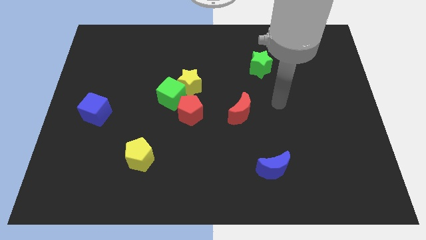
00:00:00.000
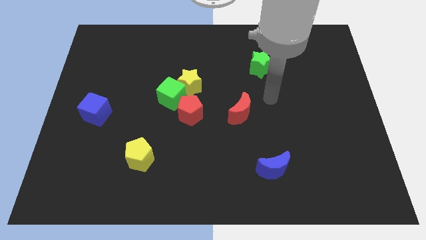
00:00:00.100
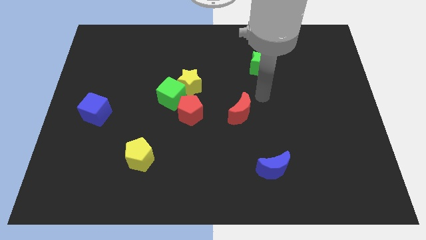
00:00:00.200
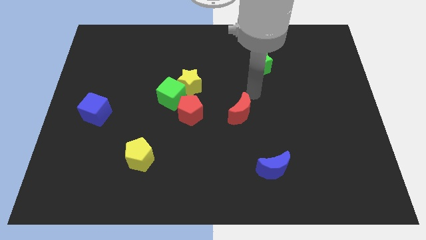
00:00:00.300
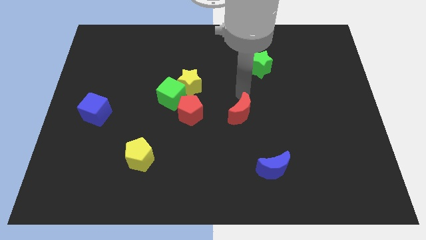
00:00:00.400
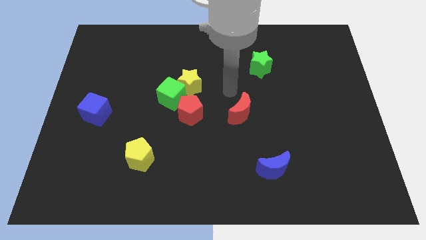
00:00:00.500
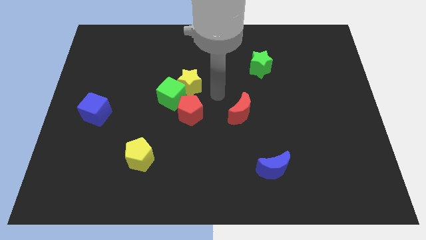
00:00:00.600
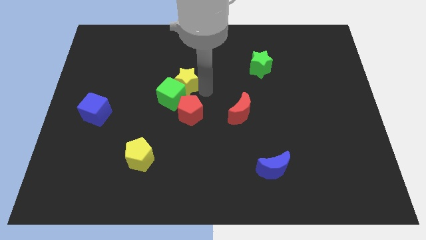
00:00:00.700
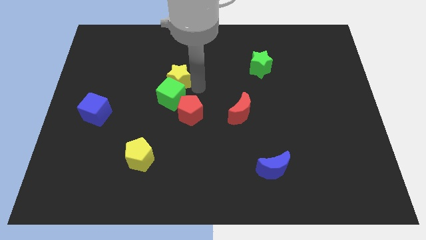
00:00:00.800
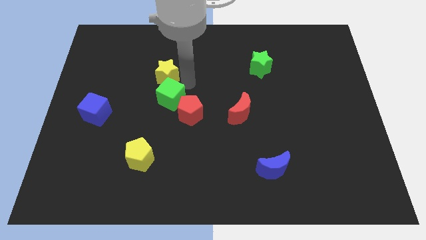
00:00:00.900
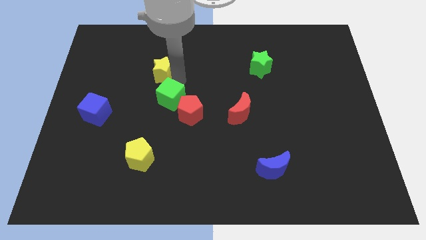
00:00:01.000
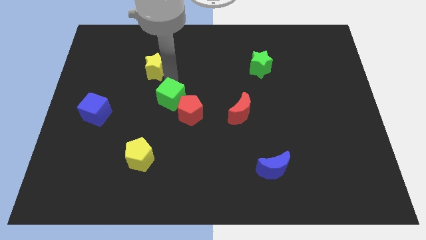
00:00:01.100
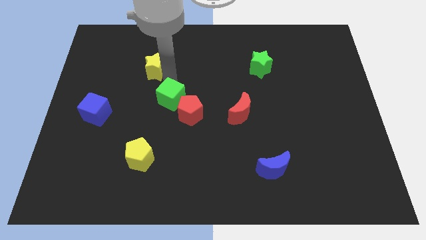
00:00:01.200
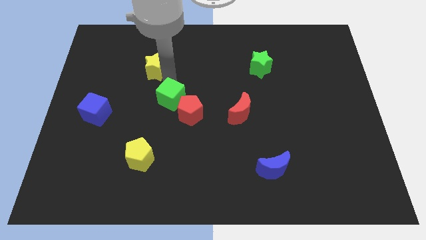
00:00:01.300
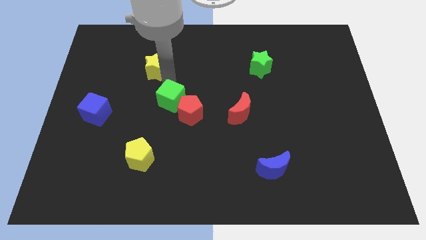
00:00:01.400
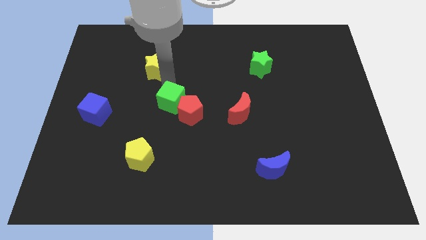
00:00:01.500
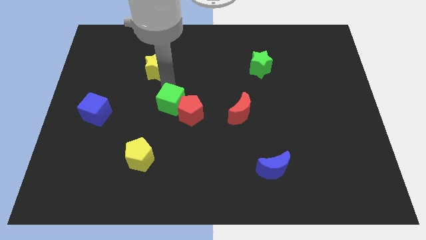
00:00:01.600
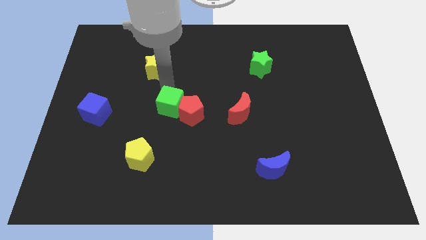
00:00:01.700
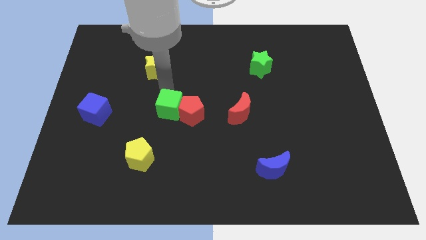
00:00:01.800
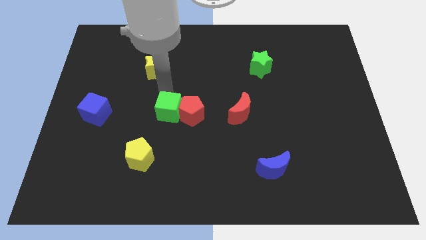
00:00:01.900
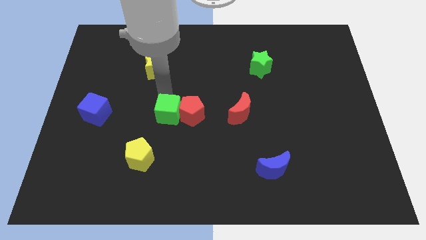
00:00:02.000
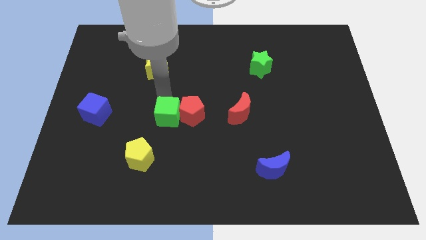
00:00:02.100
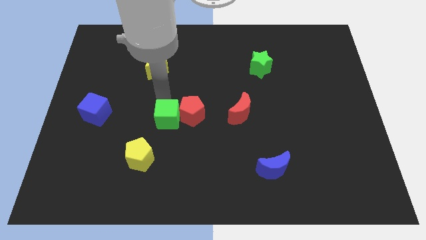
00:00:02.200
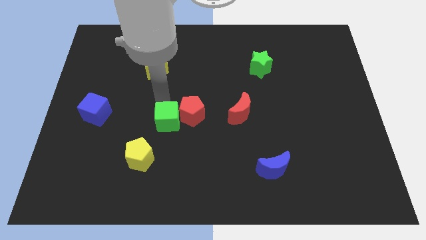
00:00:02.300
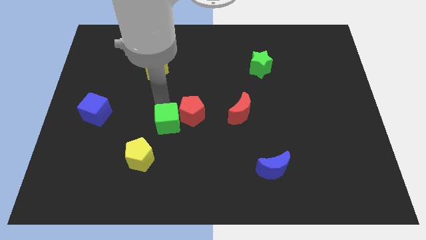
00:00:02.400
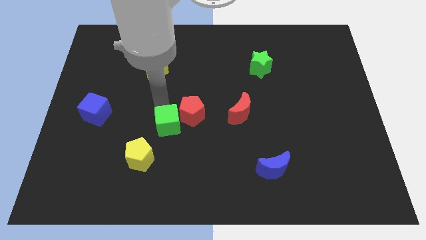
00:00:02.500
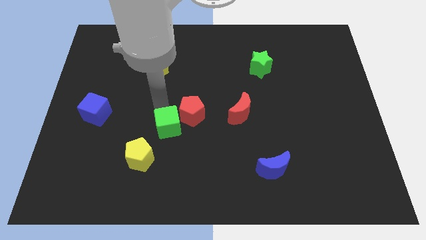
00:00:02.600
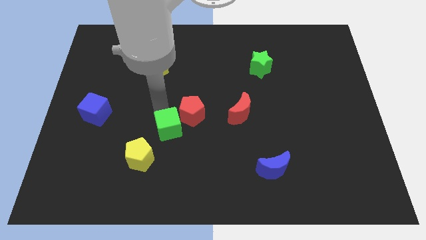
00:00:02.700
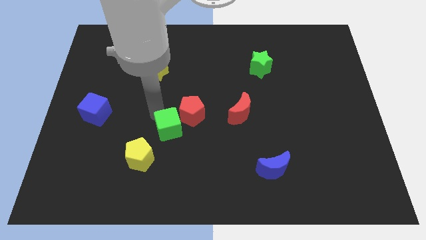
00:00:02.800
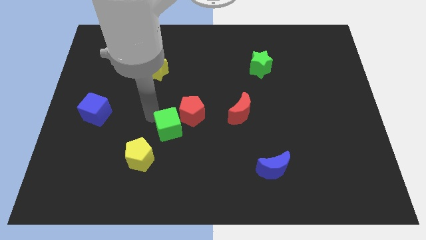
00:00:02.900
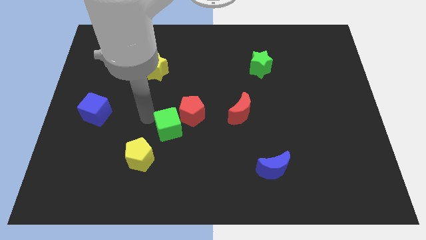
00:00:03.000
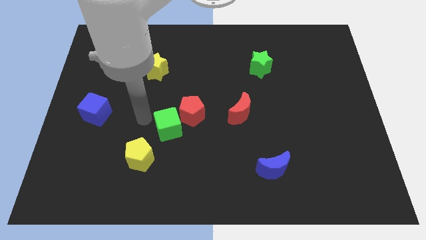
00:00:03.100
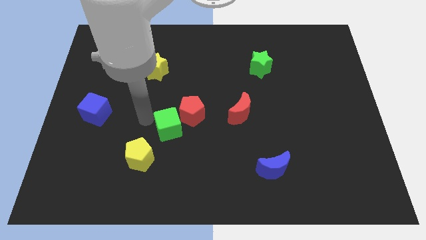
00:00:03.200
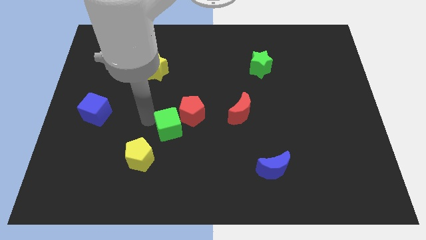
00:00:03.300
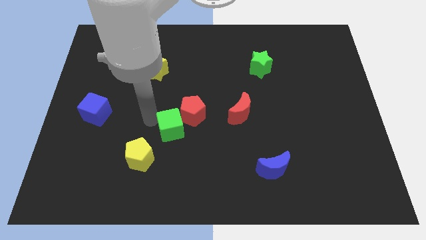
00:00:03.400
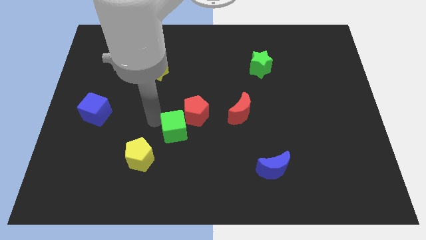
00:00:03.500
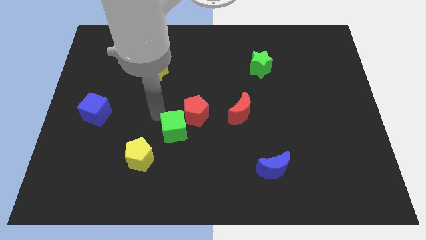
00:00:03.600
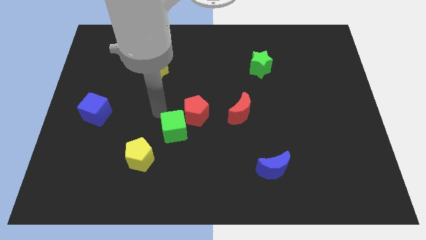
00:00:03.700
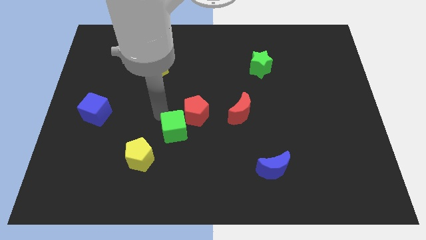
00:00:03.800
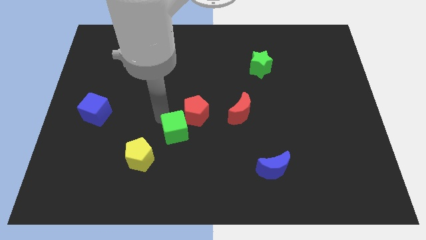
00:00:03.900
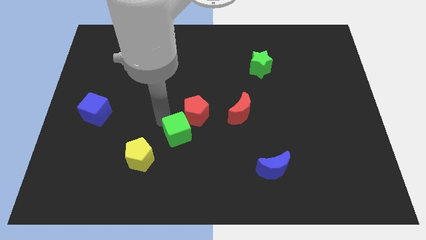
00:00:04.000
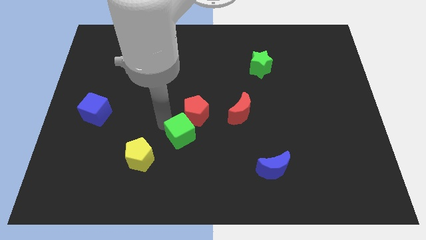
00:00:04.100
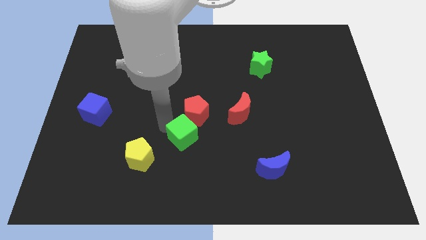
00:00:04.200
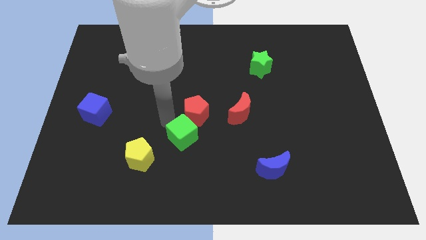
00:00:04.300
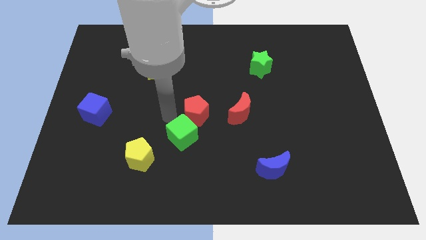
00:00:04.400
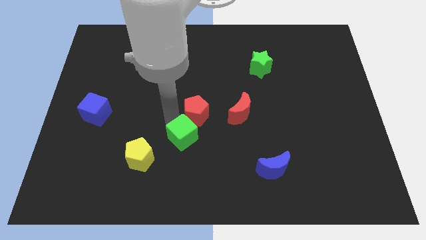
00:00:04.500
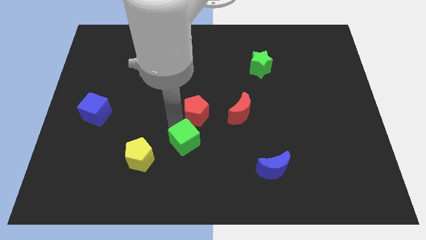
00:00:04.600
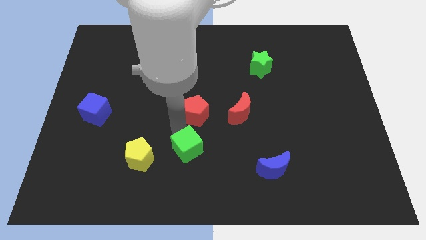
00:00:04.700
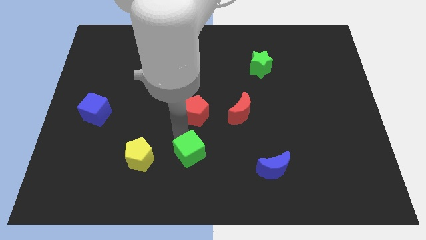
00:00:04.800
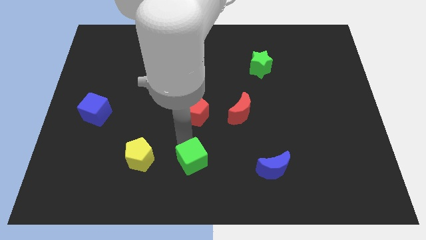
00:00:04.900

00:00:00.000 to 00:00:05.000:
put the green cube to the bottom side

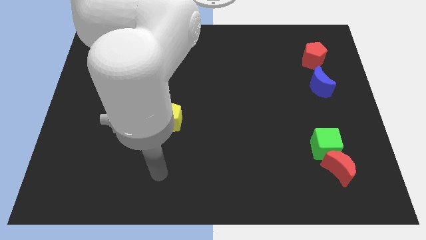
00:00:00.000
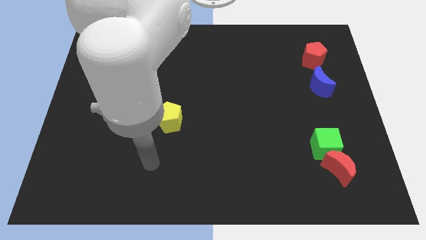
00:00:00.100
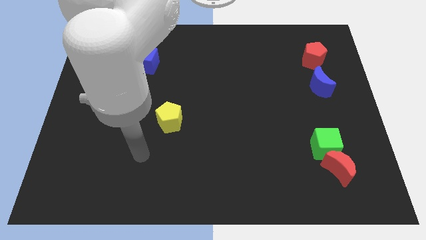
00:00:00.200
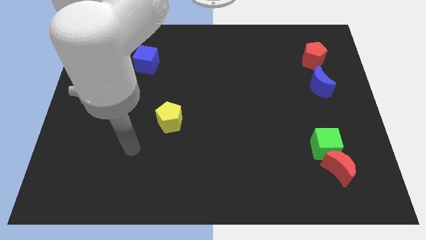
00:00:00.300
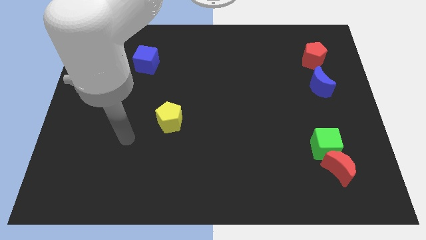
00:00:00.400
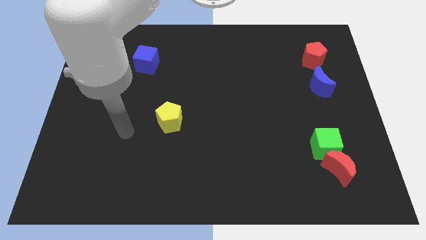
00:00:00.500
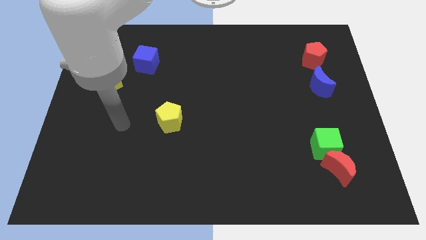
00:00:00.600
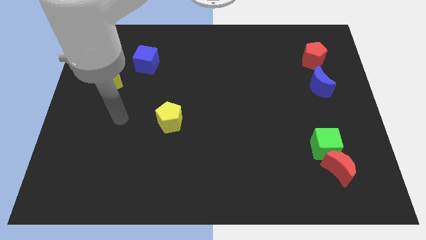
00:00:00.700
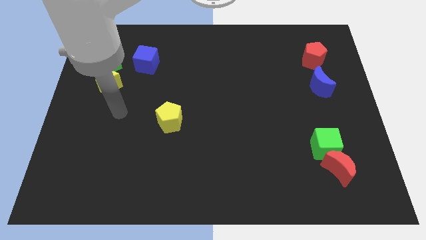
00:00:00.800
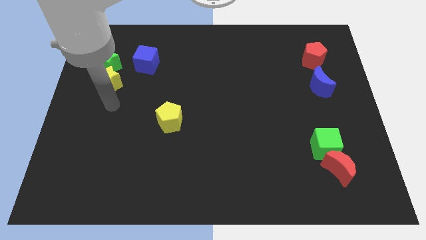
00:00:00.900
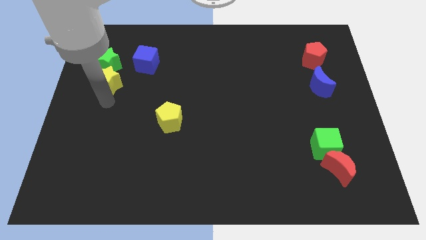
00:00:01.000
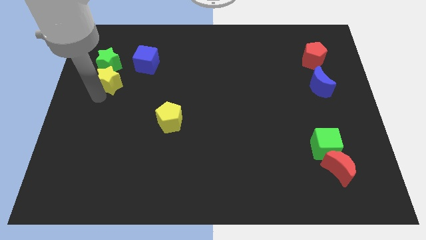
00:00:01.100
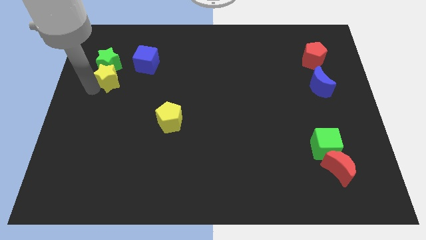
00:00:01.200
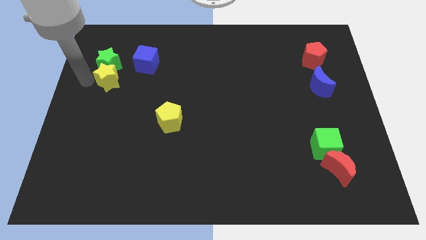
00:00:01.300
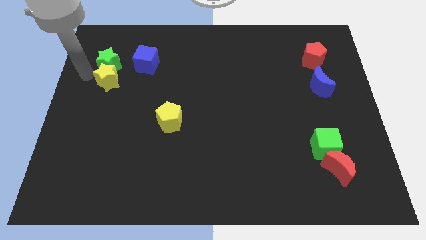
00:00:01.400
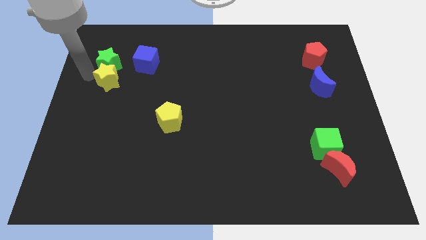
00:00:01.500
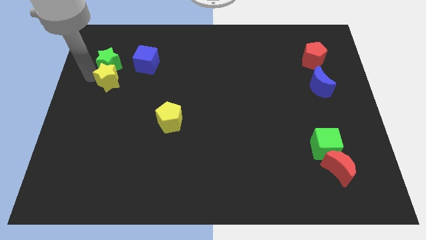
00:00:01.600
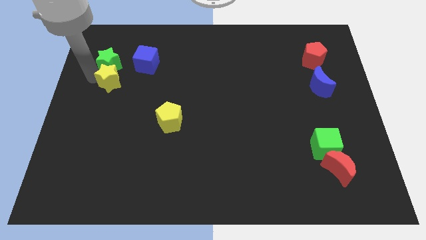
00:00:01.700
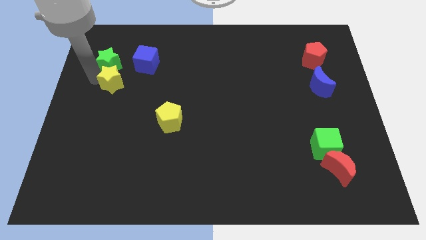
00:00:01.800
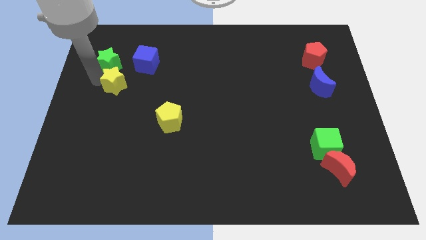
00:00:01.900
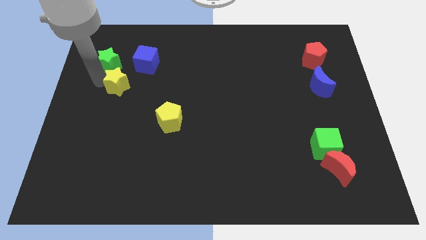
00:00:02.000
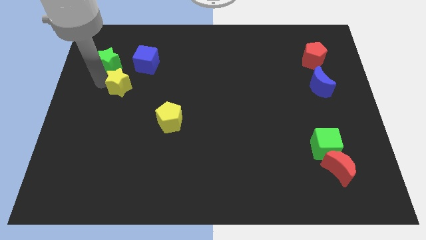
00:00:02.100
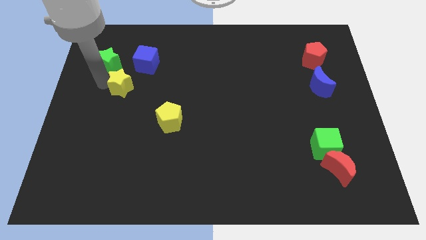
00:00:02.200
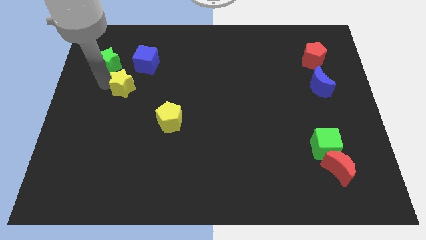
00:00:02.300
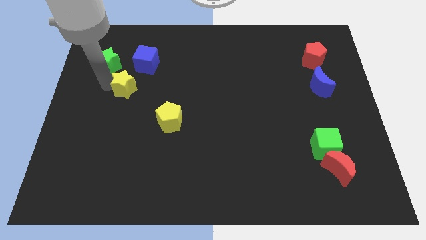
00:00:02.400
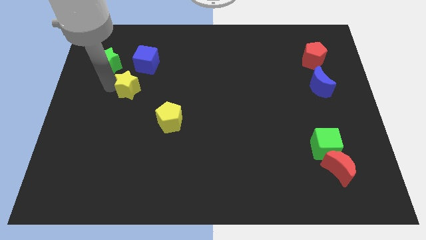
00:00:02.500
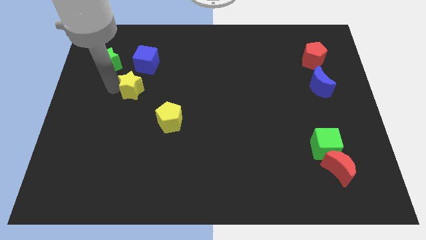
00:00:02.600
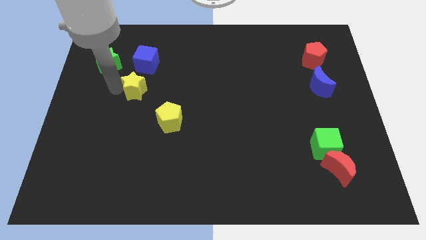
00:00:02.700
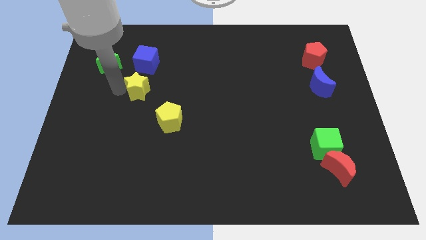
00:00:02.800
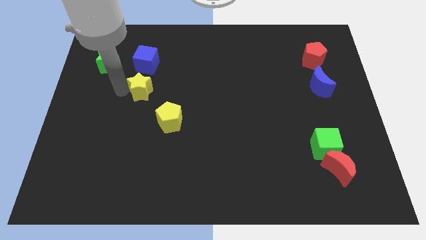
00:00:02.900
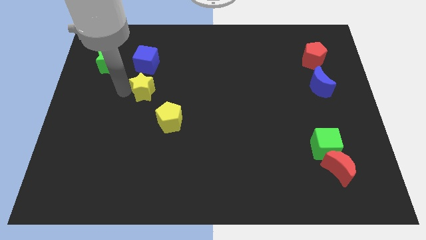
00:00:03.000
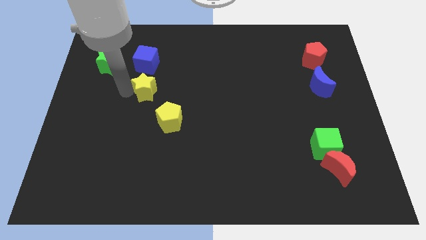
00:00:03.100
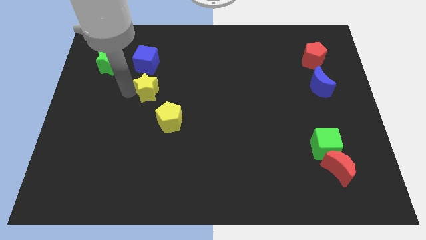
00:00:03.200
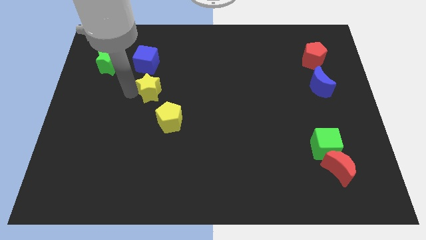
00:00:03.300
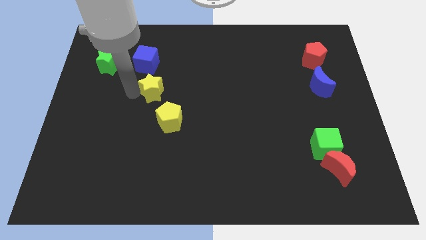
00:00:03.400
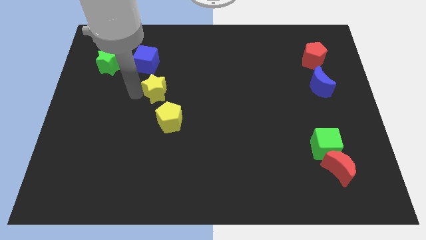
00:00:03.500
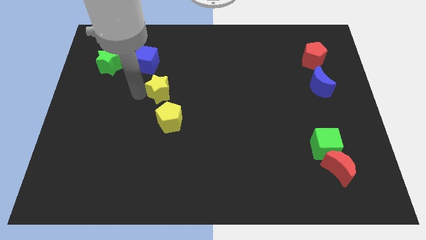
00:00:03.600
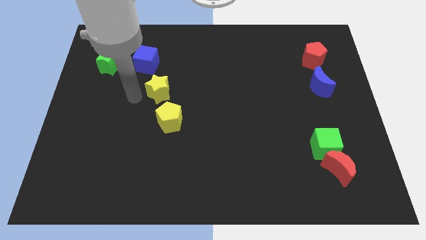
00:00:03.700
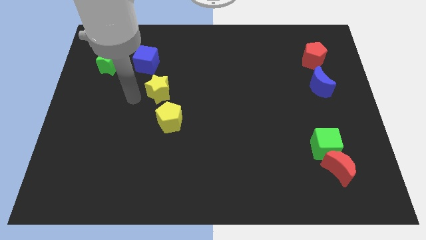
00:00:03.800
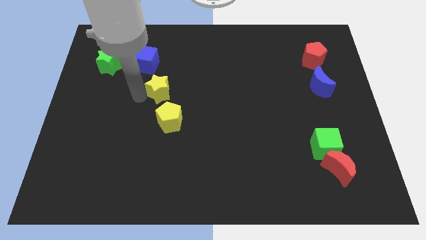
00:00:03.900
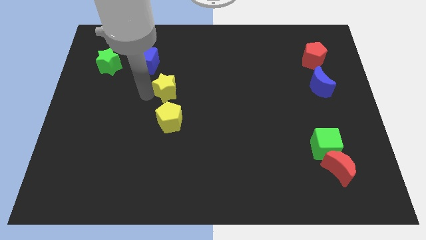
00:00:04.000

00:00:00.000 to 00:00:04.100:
push the yellow star to the center of the board
